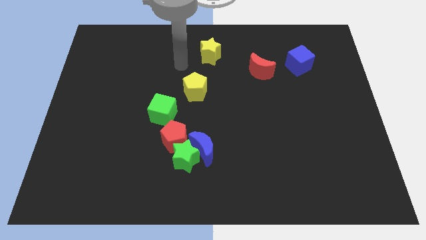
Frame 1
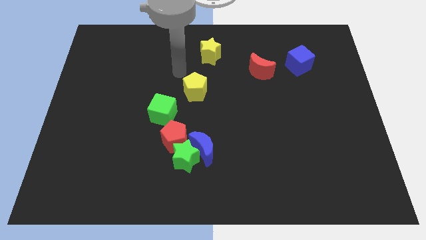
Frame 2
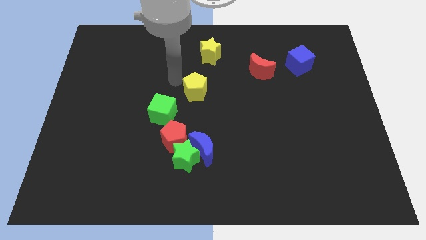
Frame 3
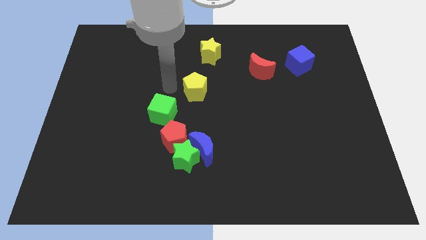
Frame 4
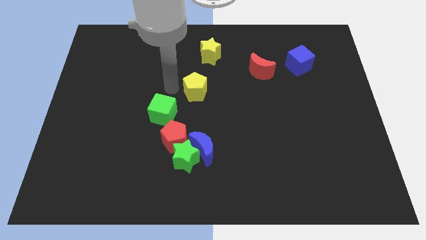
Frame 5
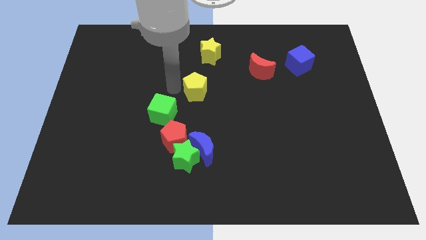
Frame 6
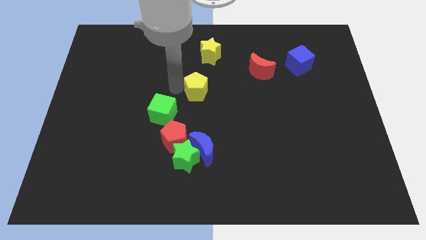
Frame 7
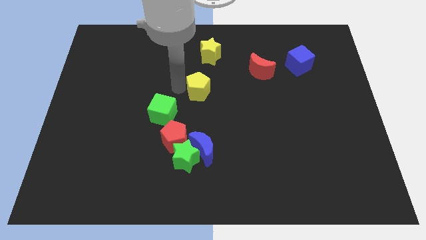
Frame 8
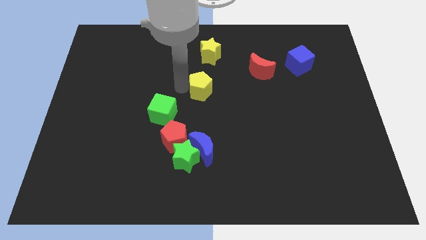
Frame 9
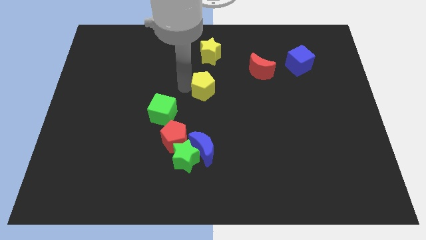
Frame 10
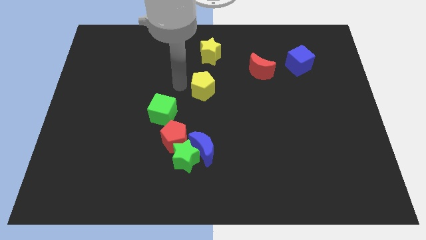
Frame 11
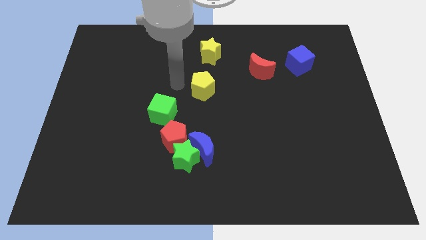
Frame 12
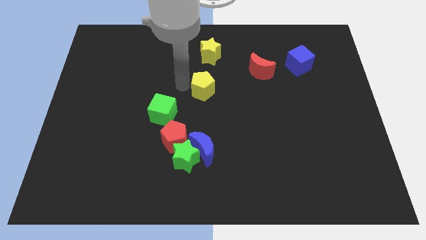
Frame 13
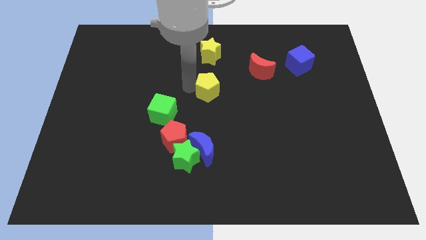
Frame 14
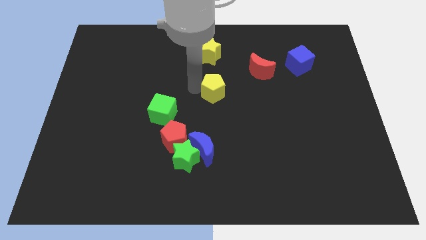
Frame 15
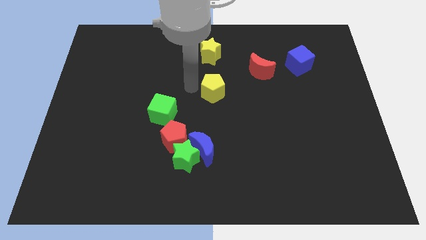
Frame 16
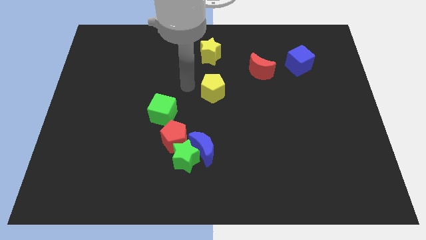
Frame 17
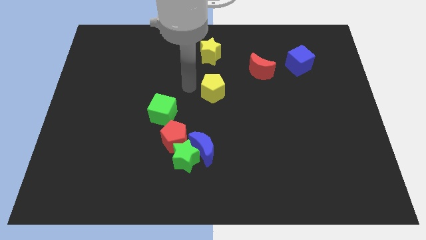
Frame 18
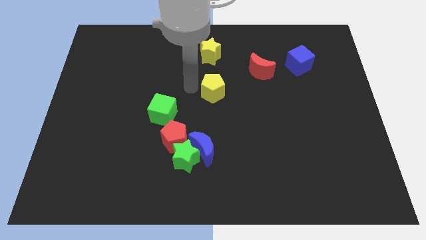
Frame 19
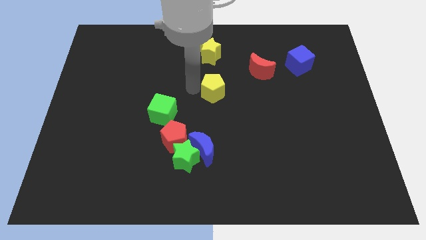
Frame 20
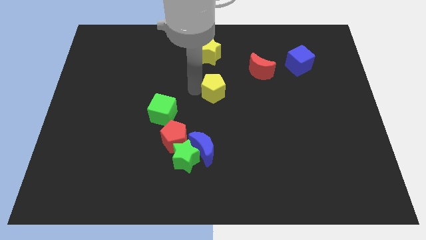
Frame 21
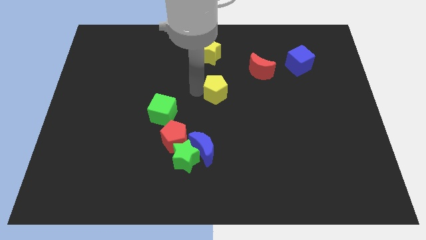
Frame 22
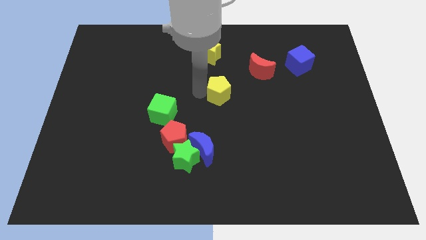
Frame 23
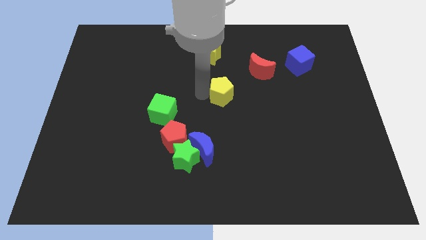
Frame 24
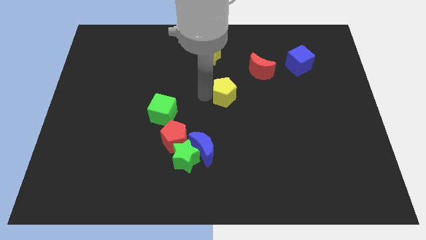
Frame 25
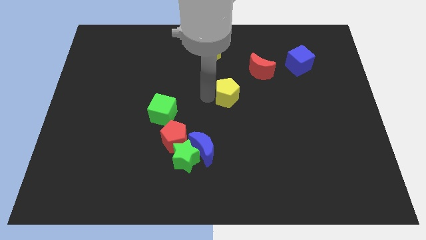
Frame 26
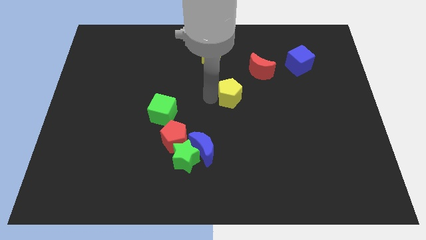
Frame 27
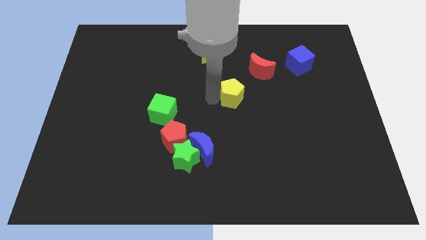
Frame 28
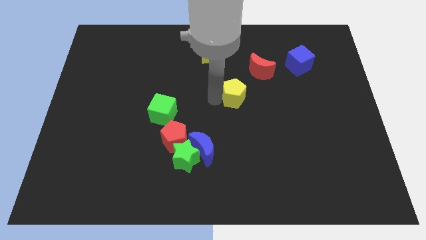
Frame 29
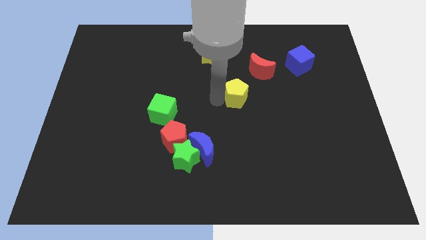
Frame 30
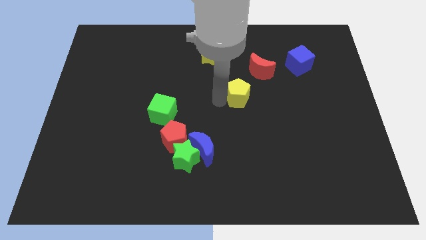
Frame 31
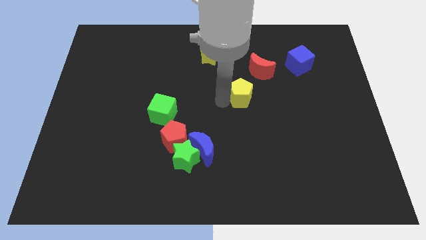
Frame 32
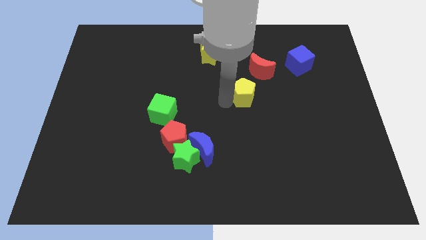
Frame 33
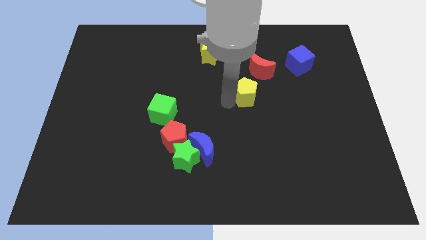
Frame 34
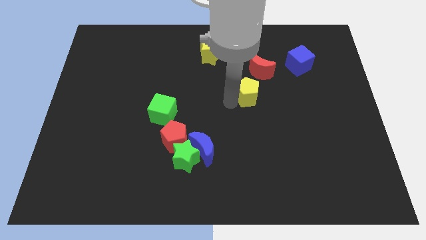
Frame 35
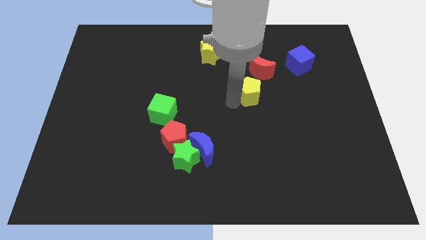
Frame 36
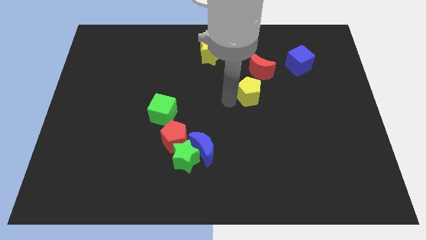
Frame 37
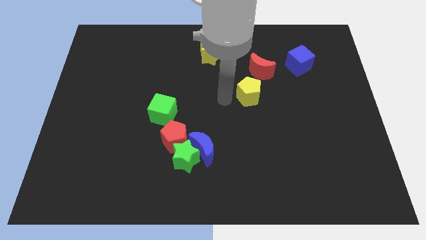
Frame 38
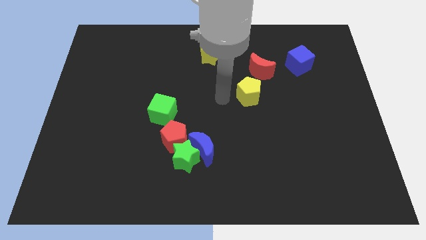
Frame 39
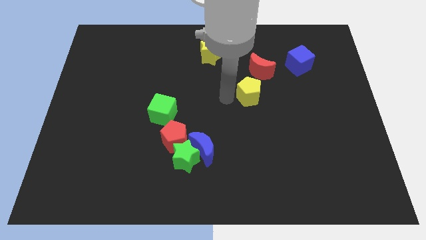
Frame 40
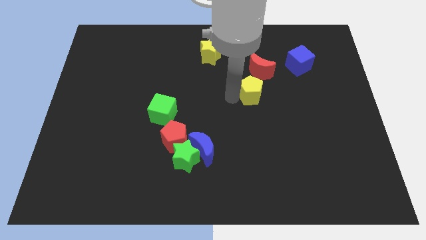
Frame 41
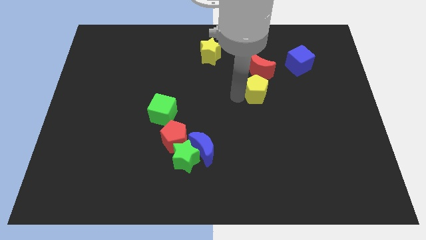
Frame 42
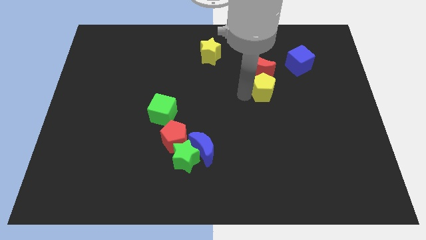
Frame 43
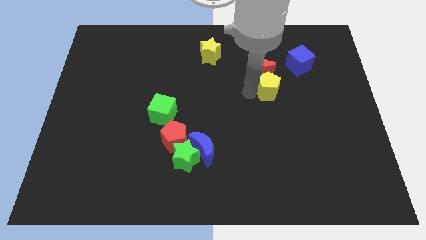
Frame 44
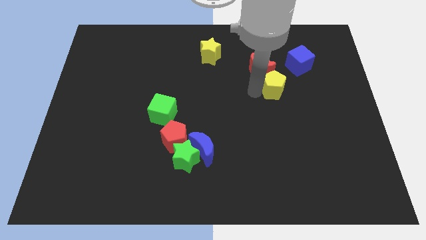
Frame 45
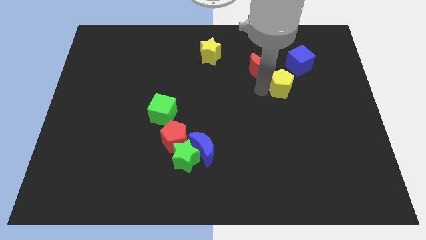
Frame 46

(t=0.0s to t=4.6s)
push the yellow pentagon right

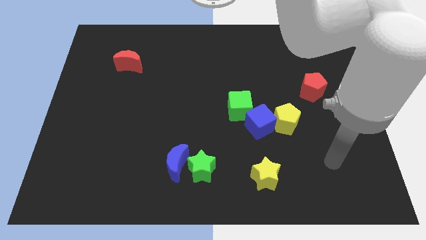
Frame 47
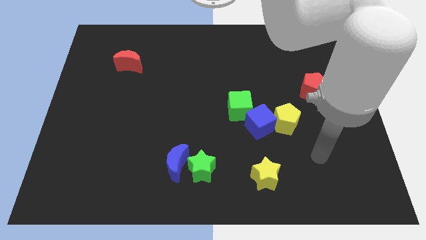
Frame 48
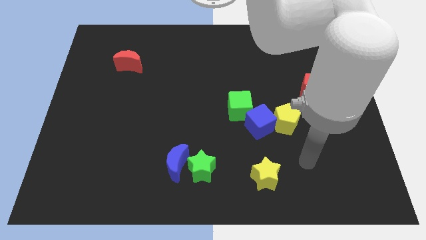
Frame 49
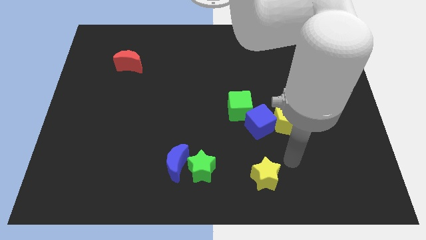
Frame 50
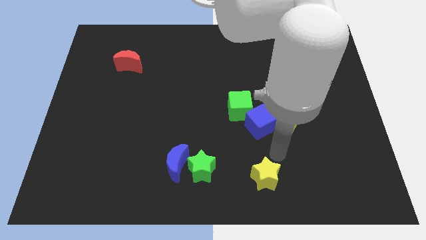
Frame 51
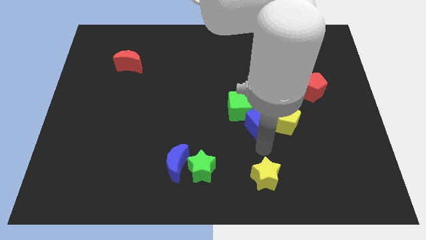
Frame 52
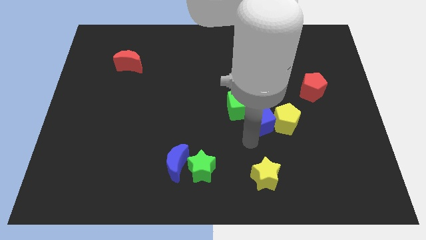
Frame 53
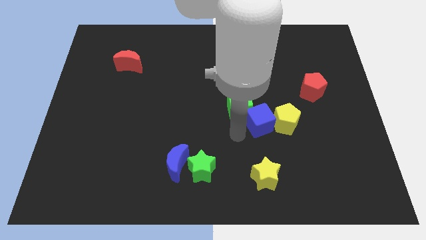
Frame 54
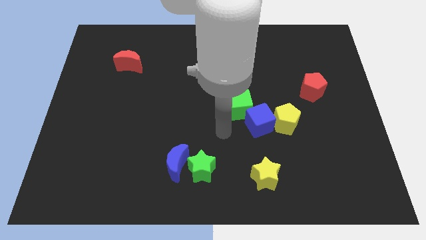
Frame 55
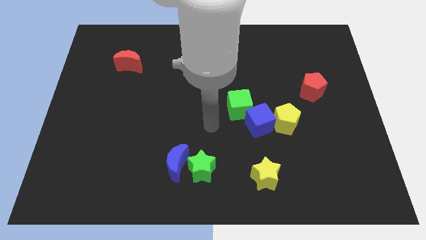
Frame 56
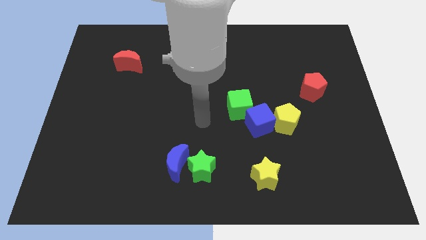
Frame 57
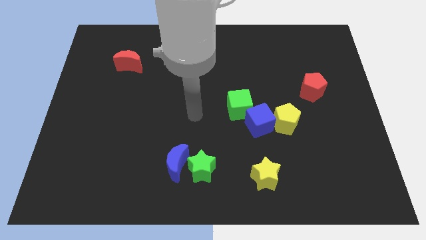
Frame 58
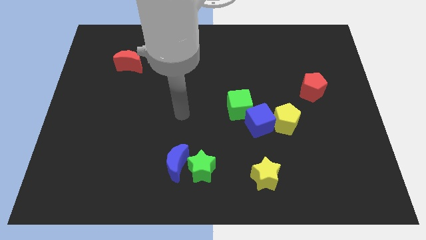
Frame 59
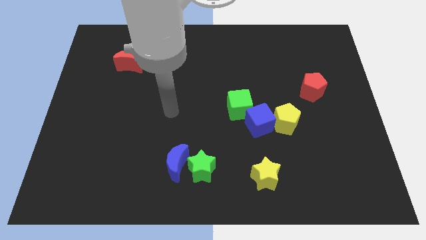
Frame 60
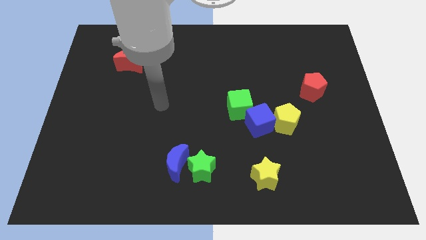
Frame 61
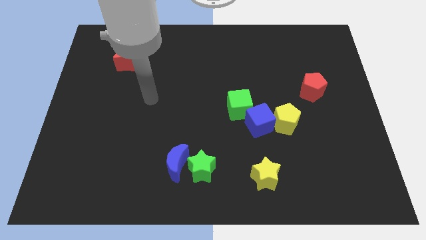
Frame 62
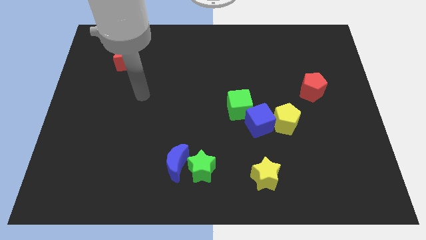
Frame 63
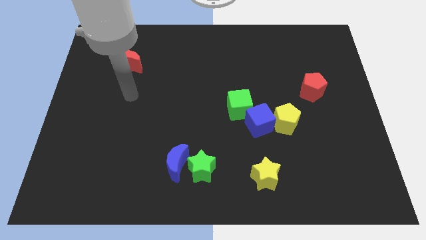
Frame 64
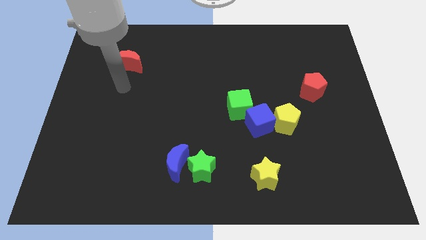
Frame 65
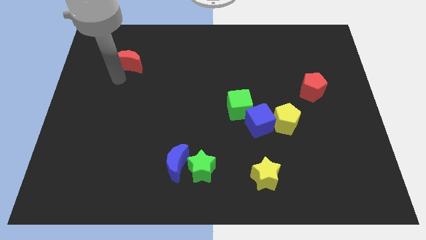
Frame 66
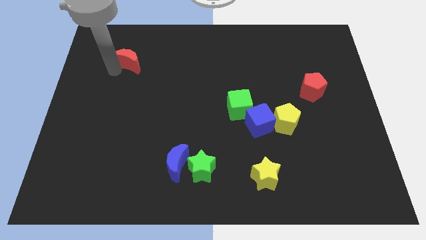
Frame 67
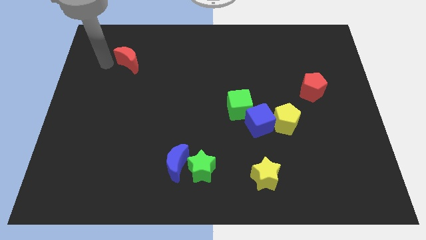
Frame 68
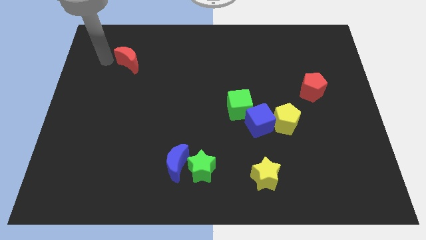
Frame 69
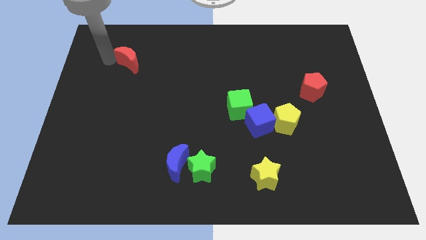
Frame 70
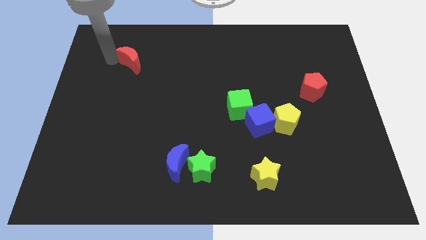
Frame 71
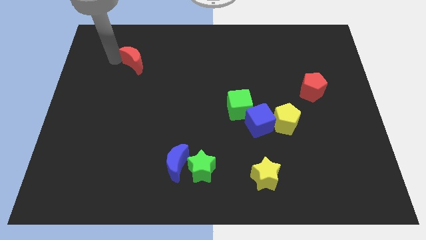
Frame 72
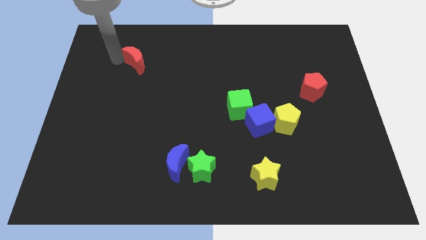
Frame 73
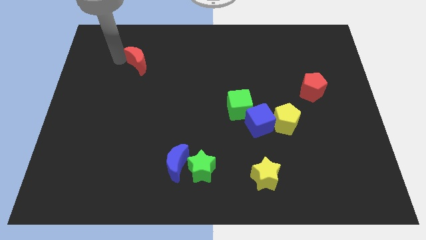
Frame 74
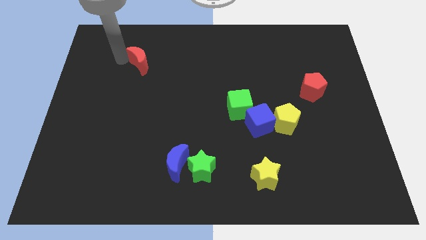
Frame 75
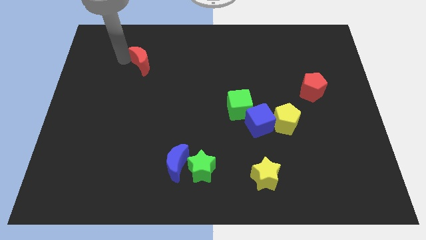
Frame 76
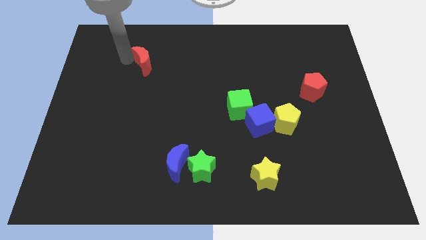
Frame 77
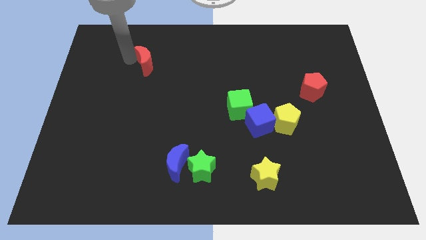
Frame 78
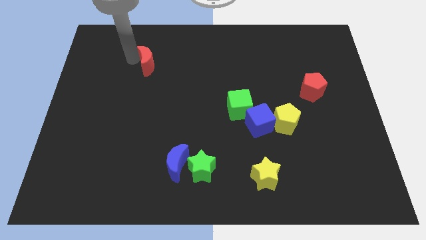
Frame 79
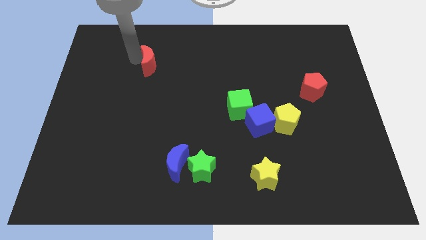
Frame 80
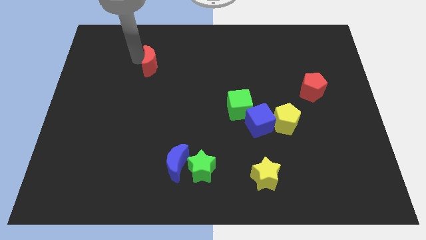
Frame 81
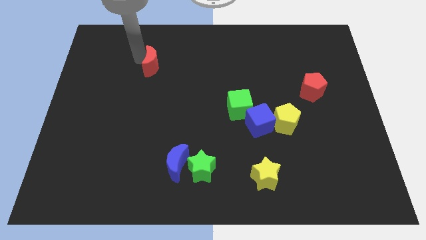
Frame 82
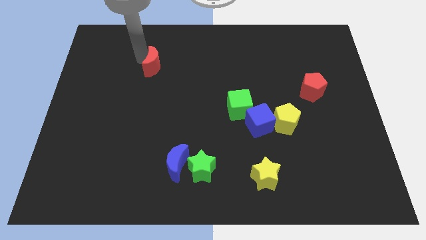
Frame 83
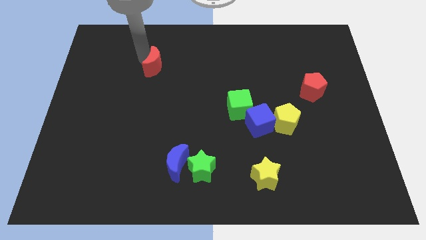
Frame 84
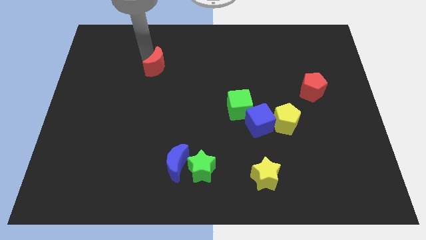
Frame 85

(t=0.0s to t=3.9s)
slide the red moon somewhat to the right
